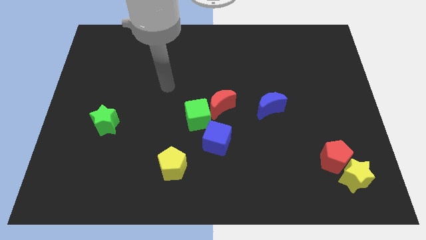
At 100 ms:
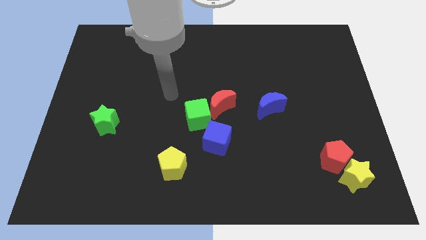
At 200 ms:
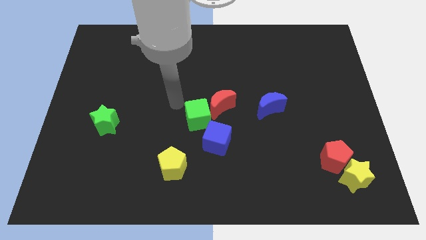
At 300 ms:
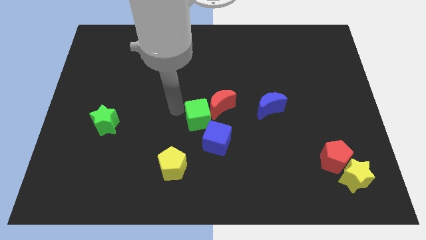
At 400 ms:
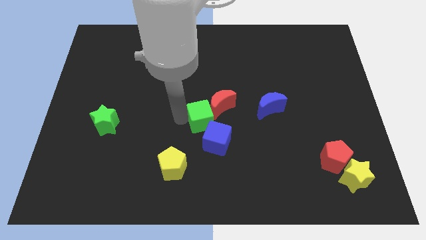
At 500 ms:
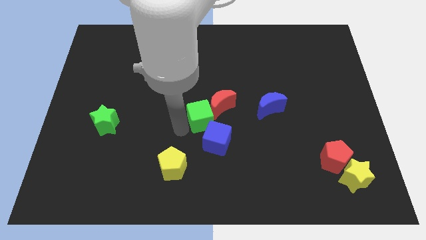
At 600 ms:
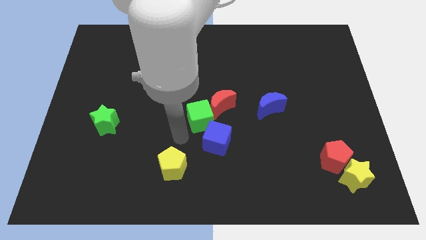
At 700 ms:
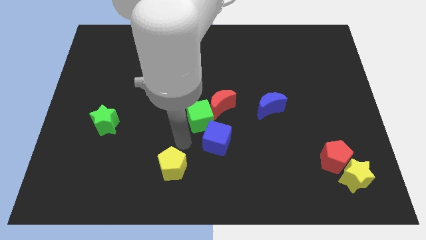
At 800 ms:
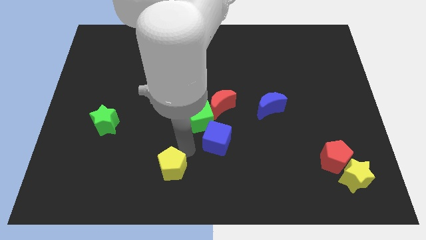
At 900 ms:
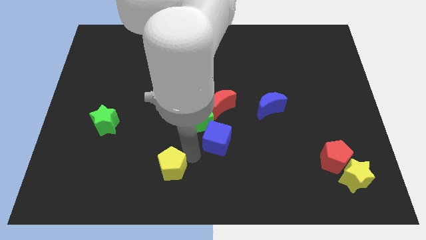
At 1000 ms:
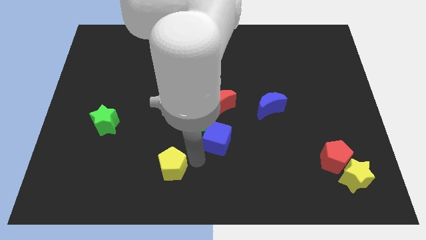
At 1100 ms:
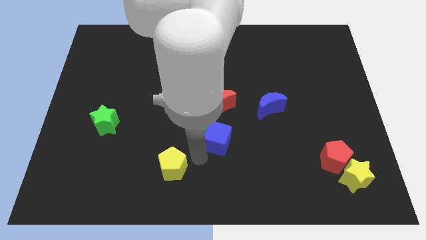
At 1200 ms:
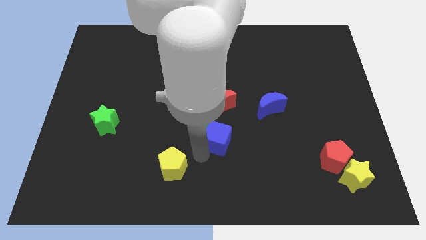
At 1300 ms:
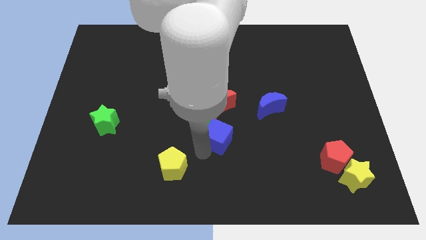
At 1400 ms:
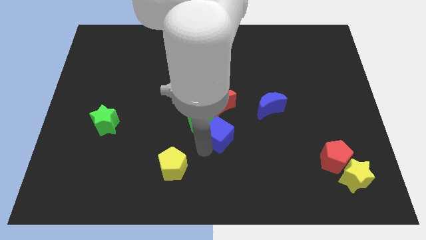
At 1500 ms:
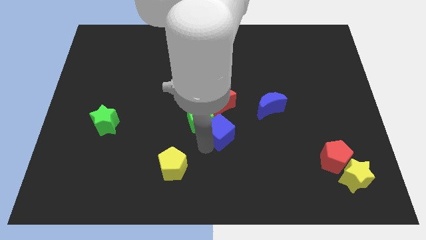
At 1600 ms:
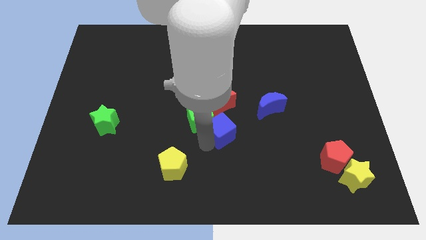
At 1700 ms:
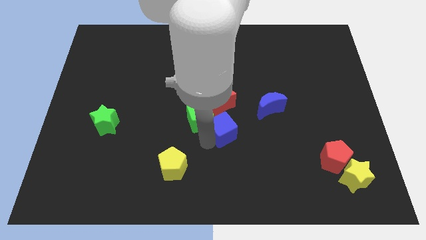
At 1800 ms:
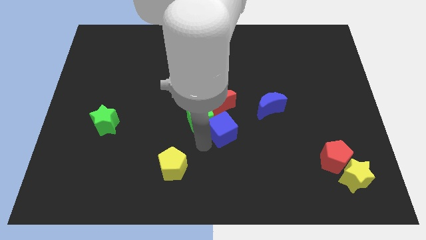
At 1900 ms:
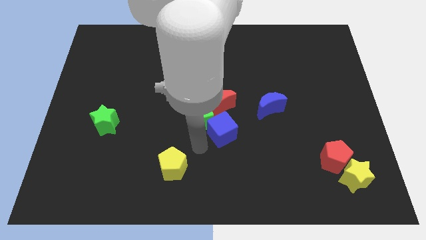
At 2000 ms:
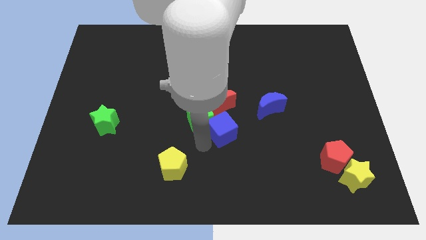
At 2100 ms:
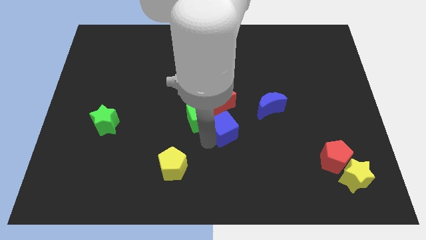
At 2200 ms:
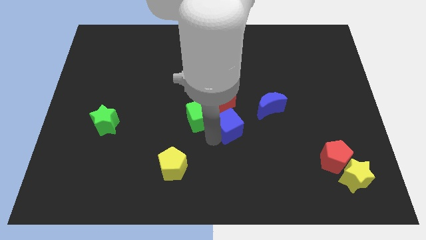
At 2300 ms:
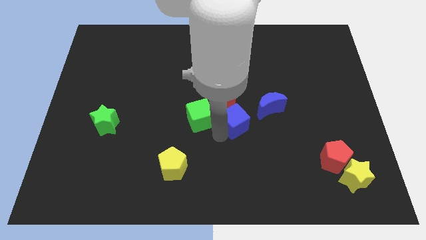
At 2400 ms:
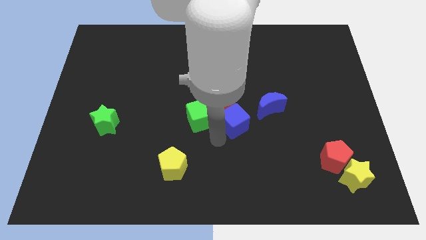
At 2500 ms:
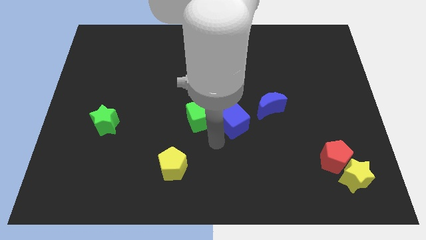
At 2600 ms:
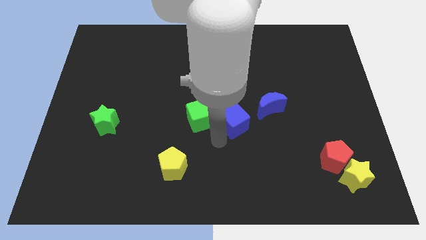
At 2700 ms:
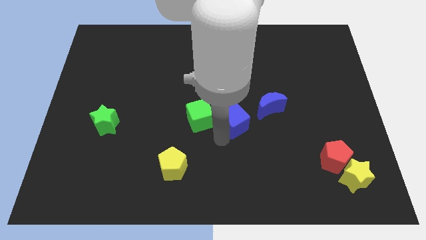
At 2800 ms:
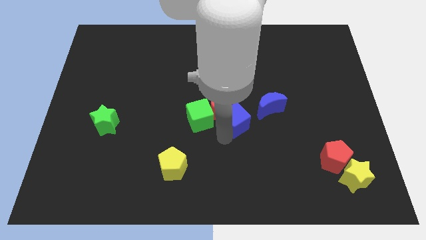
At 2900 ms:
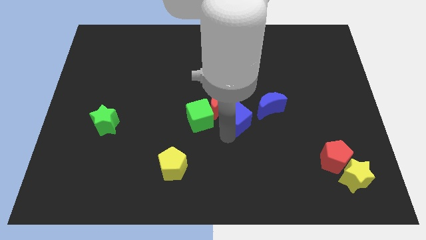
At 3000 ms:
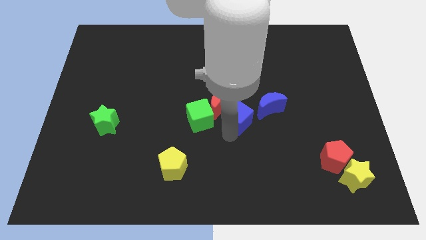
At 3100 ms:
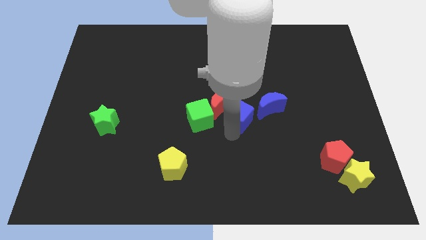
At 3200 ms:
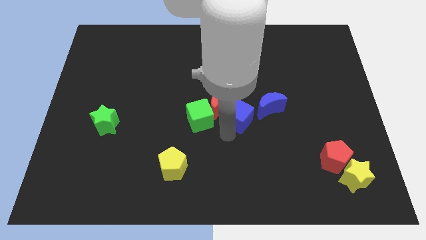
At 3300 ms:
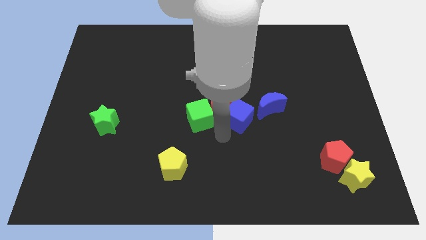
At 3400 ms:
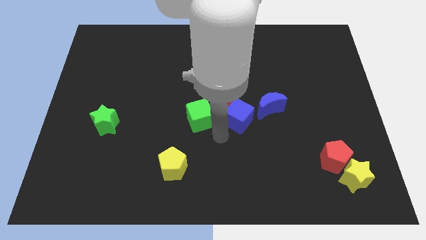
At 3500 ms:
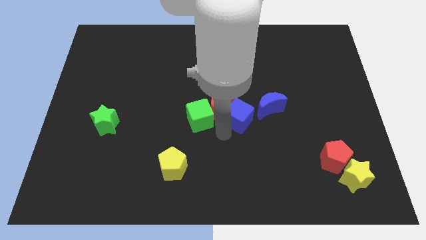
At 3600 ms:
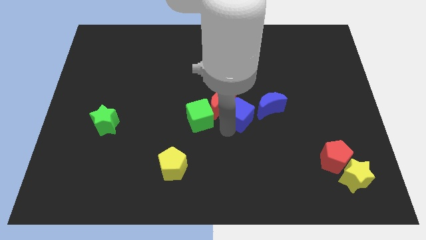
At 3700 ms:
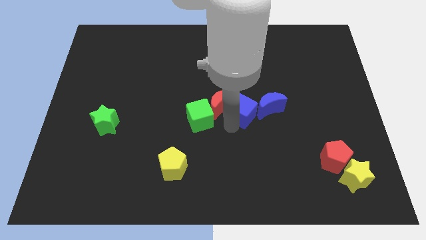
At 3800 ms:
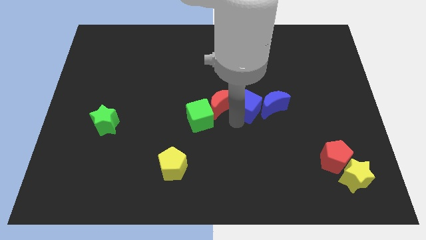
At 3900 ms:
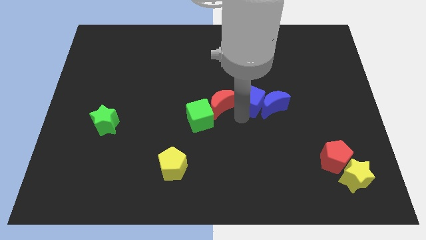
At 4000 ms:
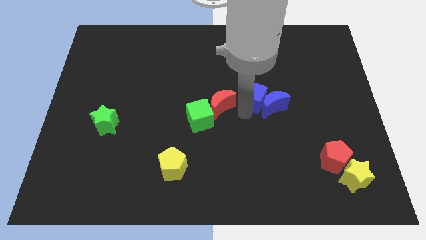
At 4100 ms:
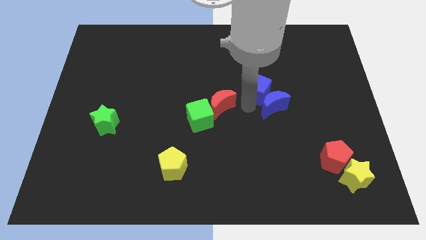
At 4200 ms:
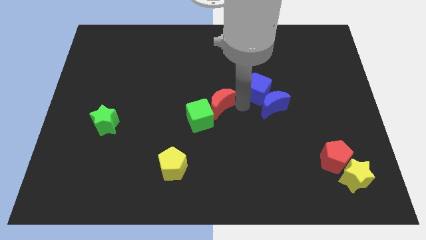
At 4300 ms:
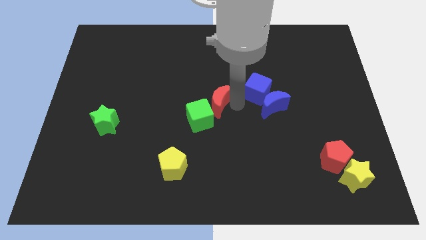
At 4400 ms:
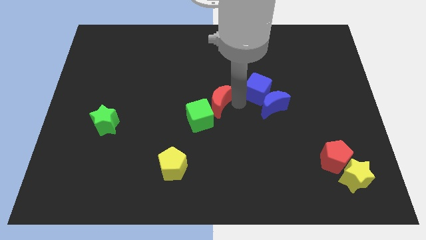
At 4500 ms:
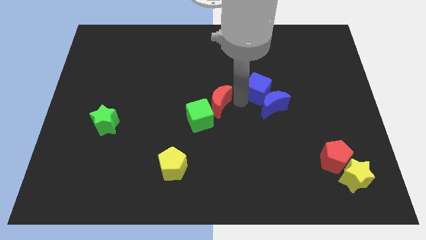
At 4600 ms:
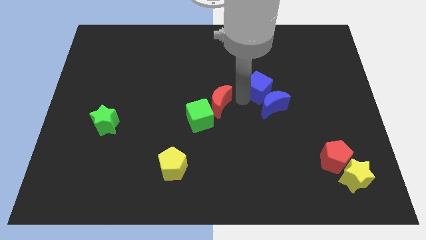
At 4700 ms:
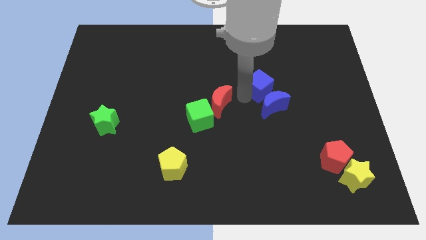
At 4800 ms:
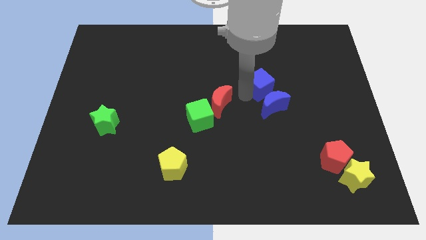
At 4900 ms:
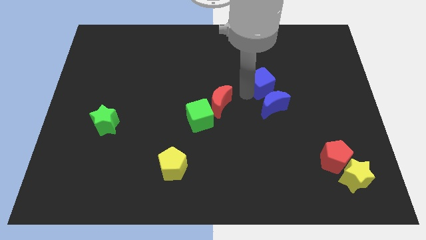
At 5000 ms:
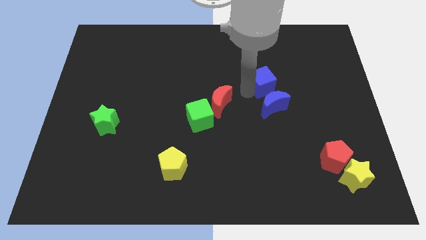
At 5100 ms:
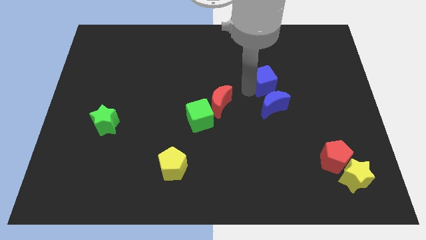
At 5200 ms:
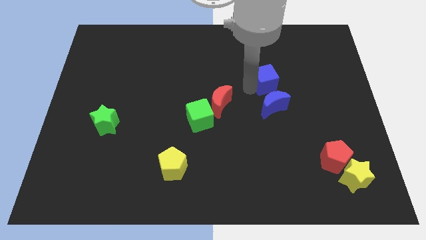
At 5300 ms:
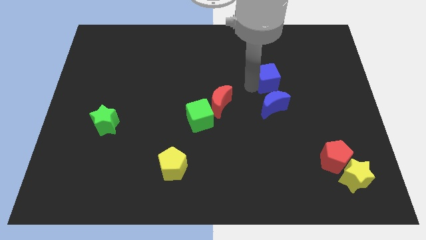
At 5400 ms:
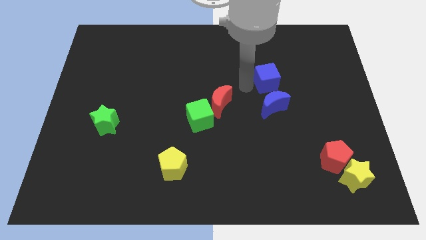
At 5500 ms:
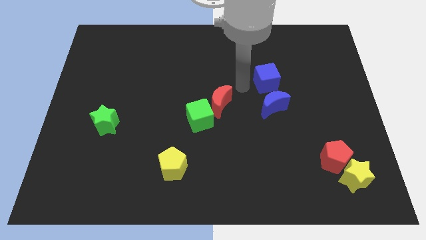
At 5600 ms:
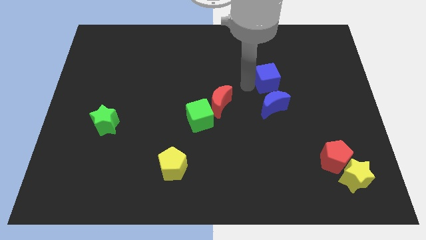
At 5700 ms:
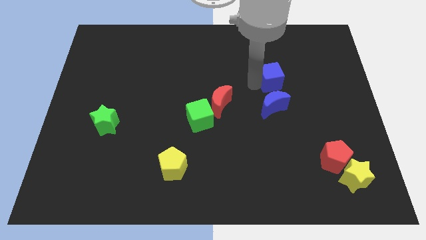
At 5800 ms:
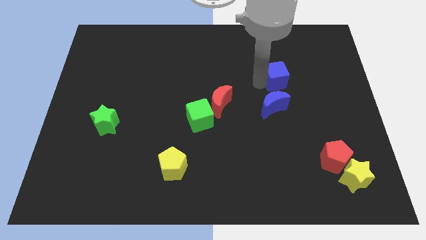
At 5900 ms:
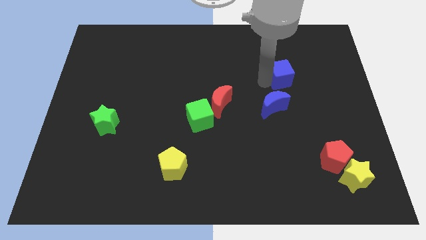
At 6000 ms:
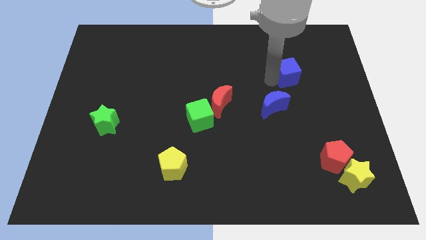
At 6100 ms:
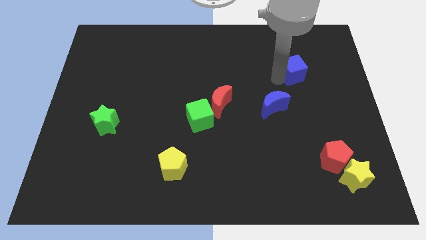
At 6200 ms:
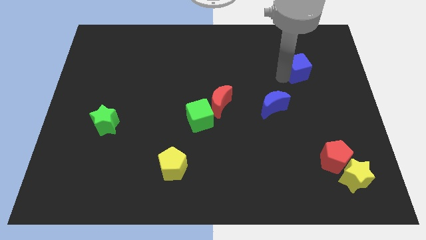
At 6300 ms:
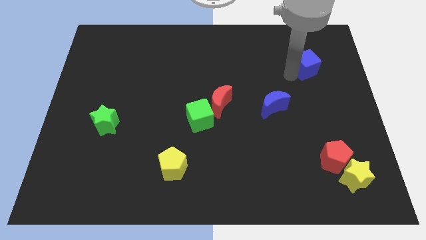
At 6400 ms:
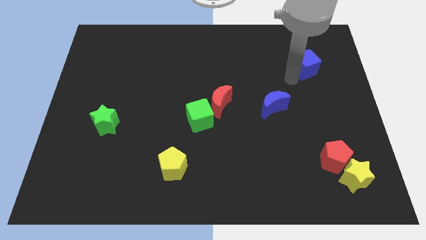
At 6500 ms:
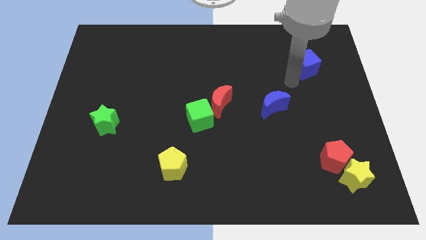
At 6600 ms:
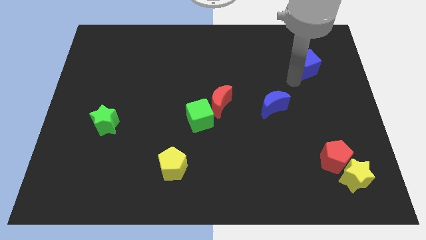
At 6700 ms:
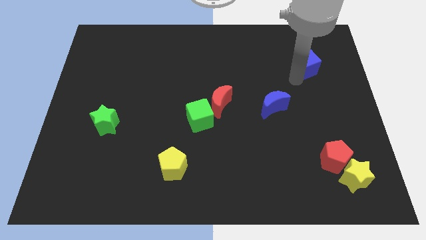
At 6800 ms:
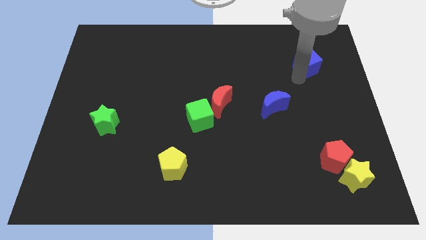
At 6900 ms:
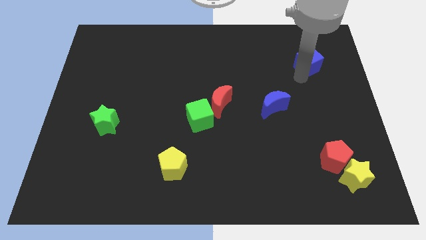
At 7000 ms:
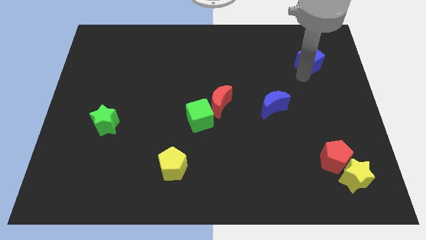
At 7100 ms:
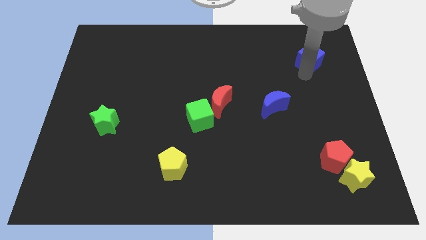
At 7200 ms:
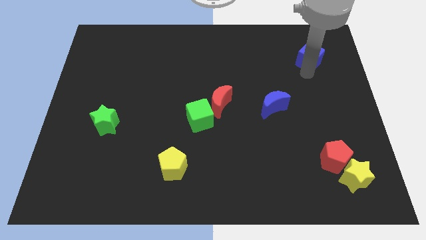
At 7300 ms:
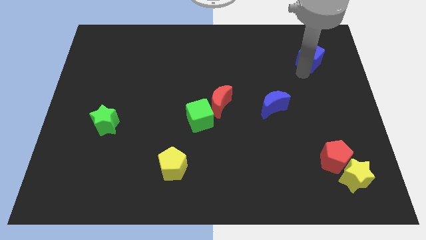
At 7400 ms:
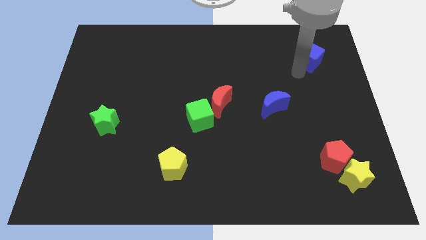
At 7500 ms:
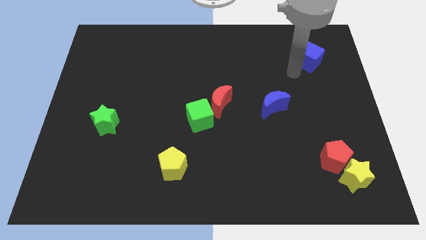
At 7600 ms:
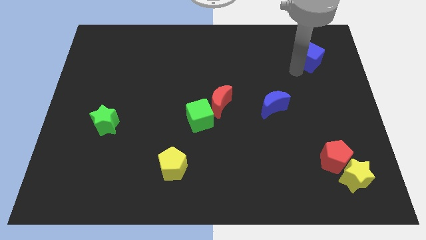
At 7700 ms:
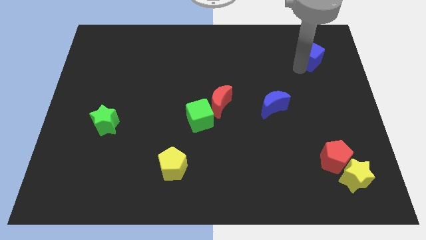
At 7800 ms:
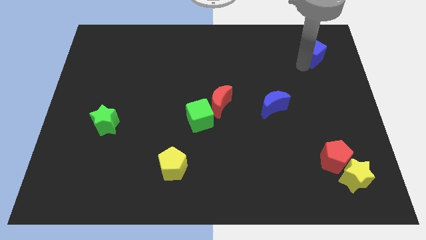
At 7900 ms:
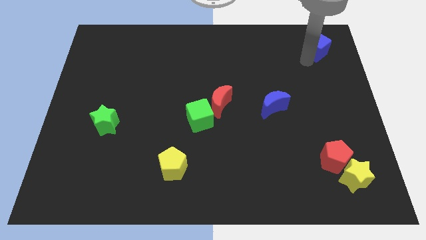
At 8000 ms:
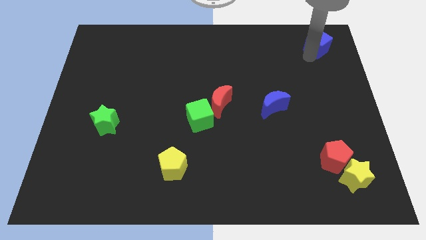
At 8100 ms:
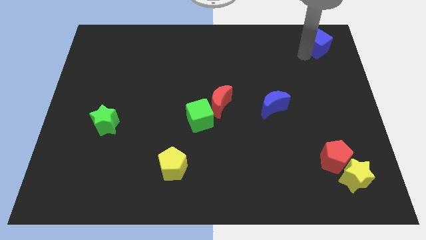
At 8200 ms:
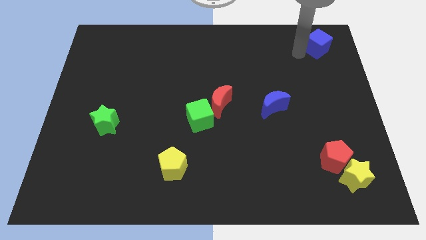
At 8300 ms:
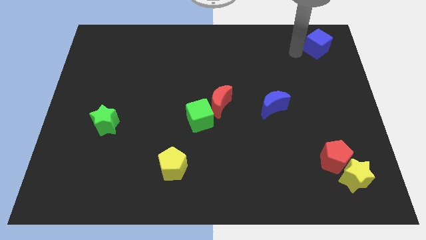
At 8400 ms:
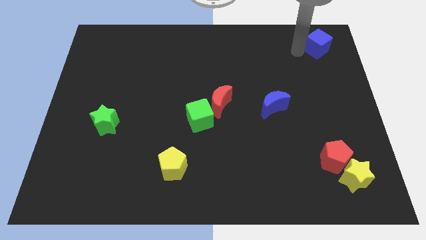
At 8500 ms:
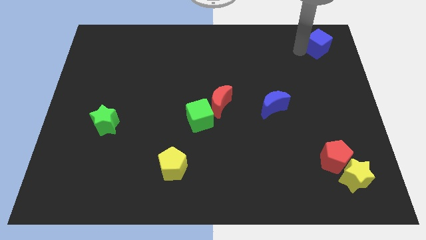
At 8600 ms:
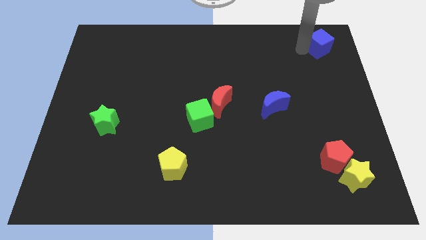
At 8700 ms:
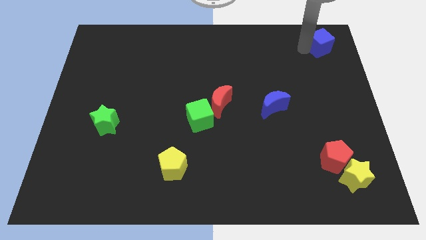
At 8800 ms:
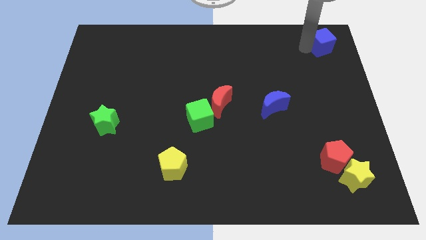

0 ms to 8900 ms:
slide the blue cube to the top right
